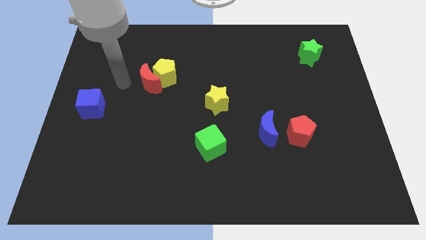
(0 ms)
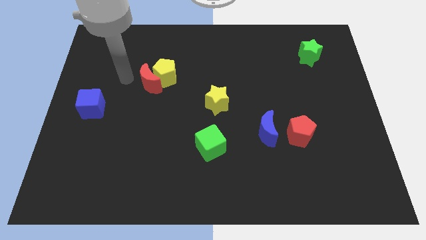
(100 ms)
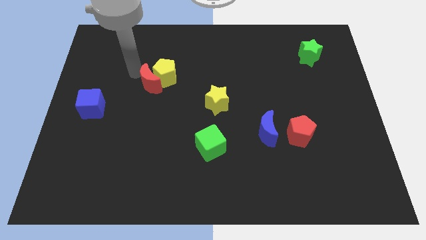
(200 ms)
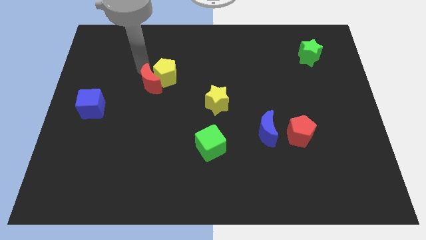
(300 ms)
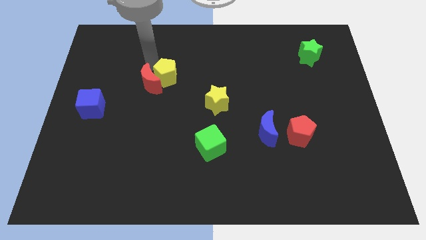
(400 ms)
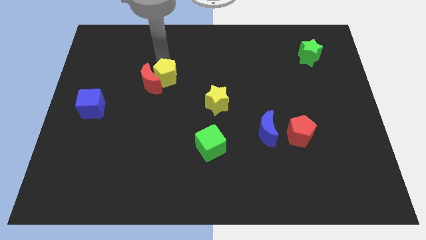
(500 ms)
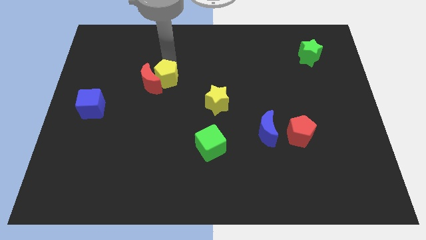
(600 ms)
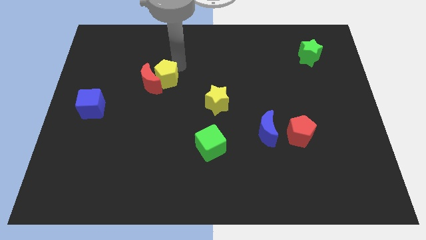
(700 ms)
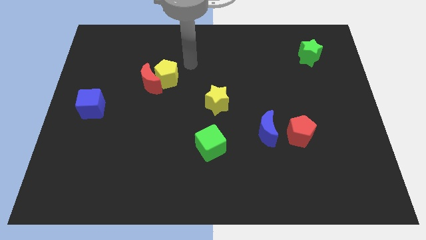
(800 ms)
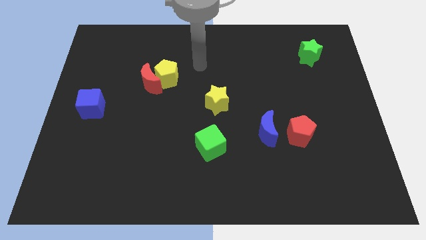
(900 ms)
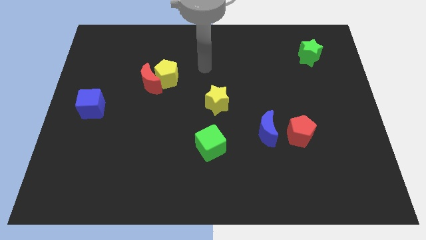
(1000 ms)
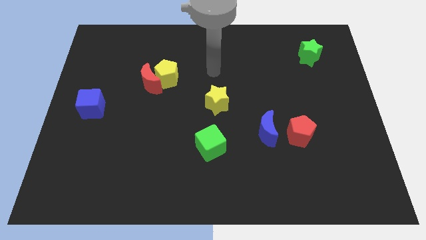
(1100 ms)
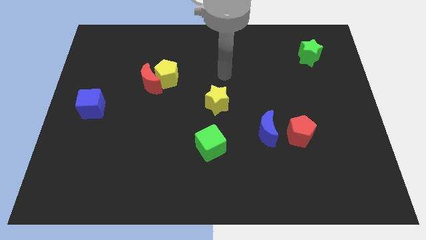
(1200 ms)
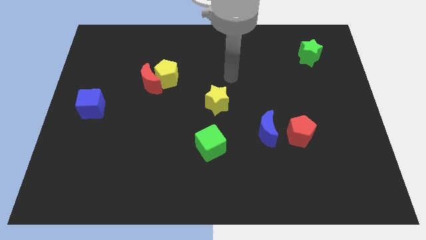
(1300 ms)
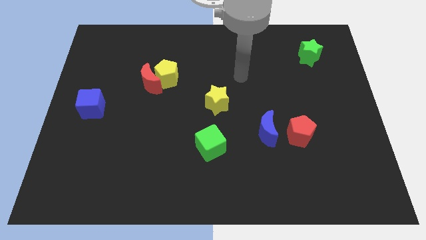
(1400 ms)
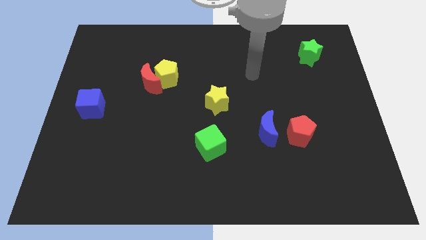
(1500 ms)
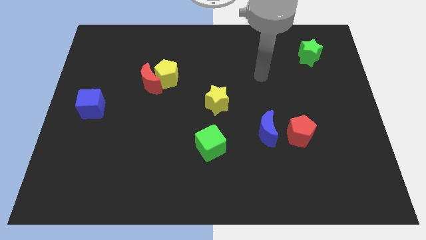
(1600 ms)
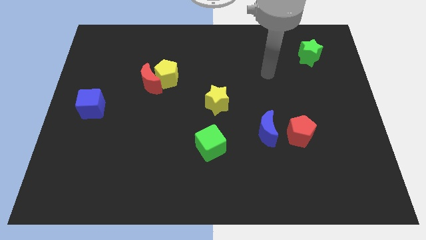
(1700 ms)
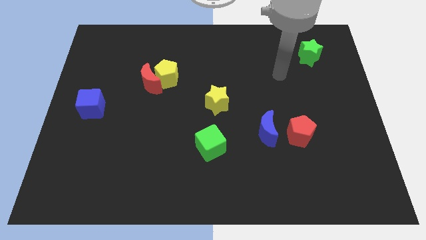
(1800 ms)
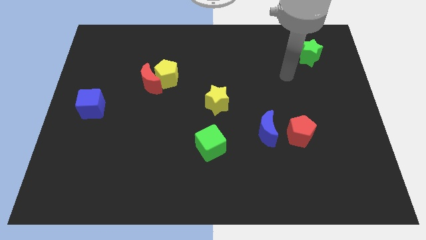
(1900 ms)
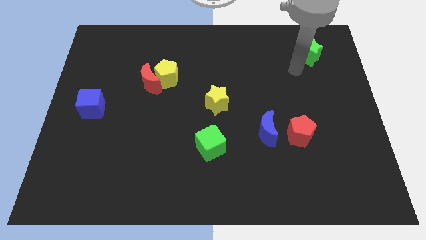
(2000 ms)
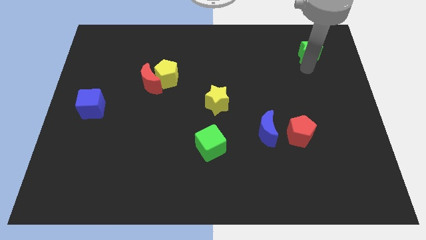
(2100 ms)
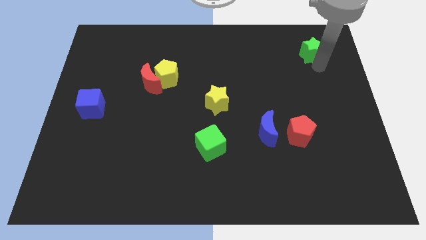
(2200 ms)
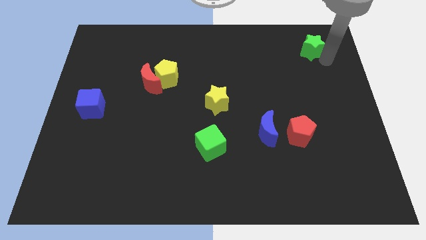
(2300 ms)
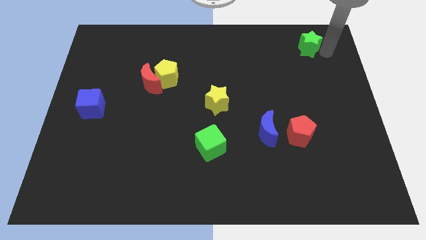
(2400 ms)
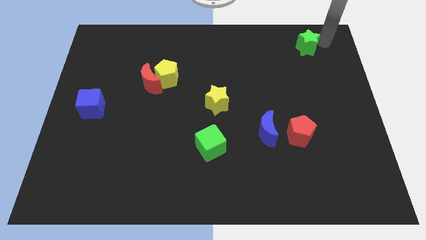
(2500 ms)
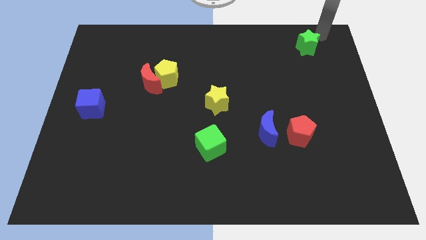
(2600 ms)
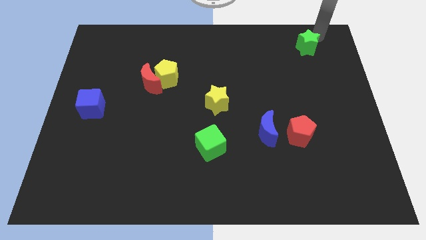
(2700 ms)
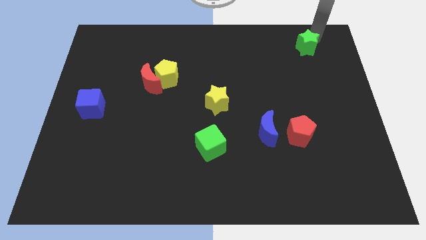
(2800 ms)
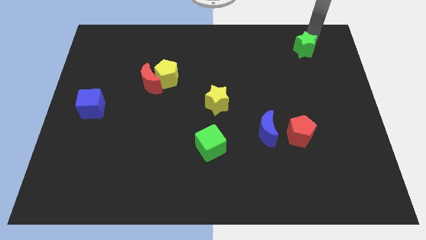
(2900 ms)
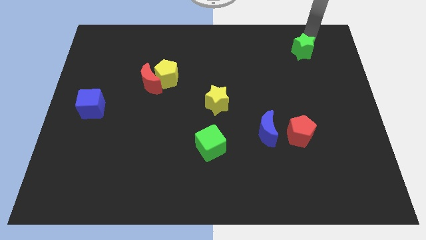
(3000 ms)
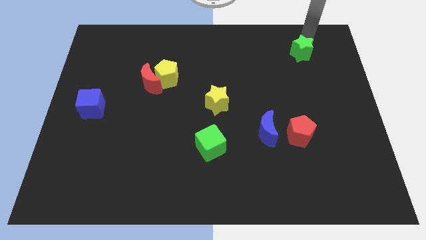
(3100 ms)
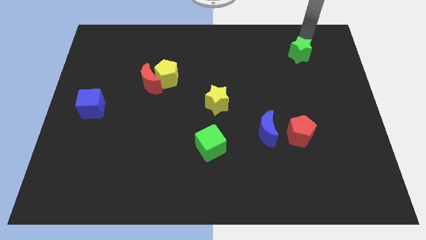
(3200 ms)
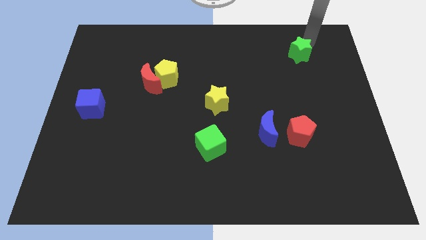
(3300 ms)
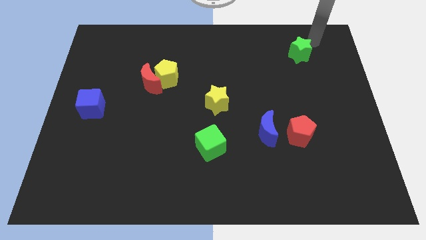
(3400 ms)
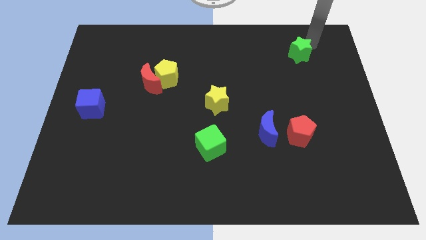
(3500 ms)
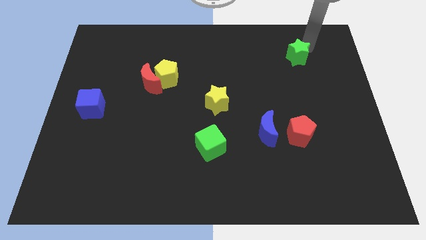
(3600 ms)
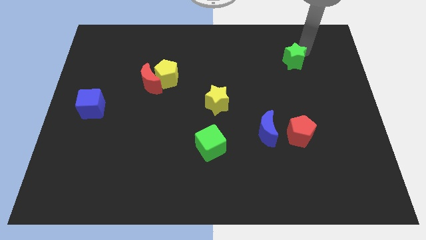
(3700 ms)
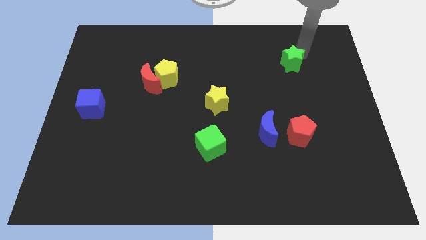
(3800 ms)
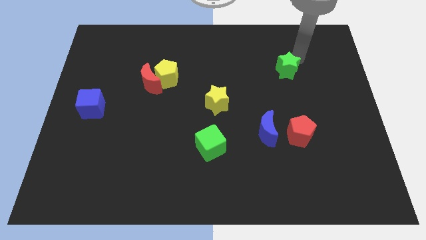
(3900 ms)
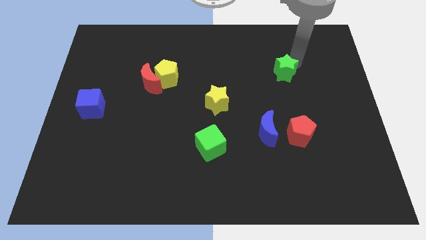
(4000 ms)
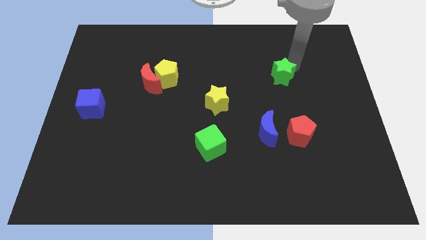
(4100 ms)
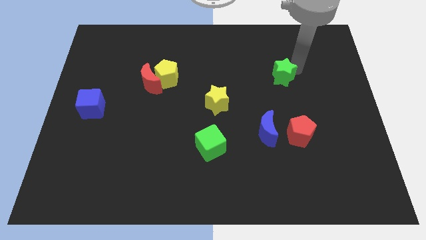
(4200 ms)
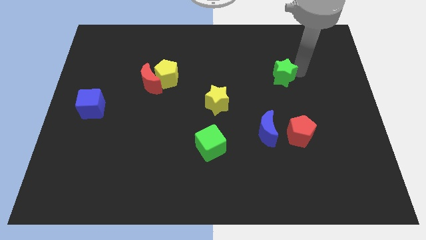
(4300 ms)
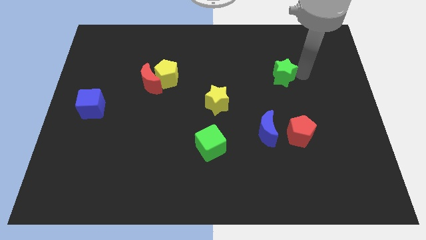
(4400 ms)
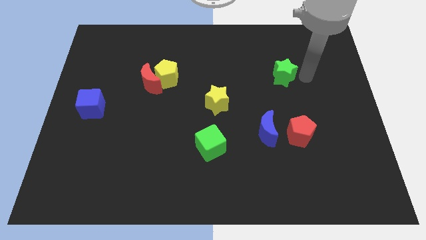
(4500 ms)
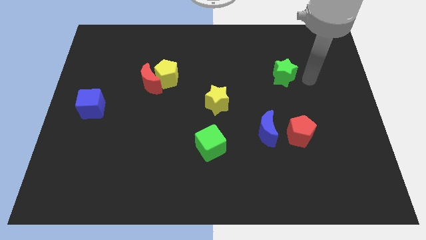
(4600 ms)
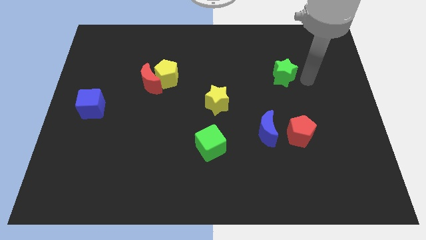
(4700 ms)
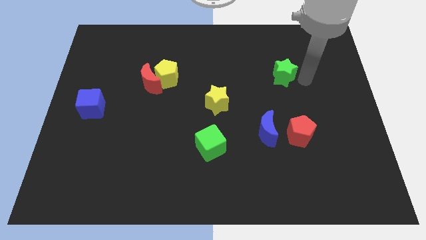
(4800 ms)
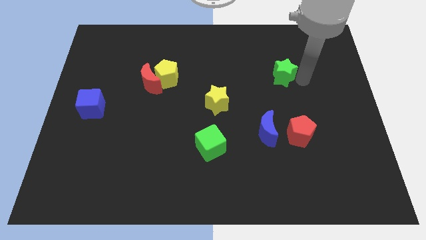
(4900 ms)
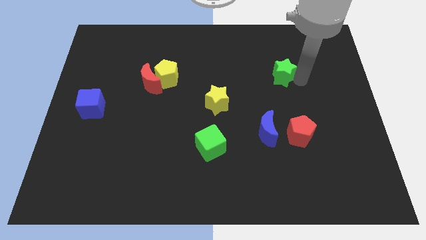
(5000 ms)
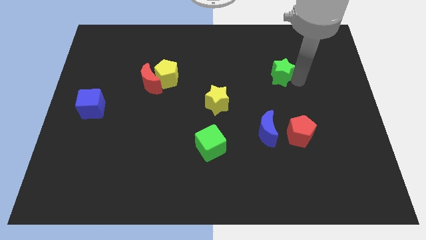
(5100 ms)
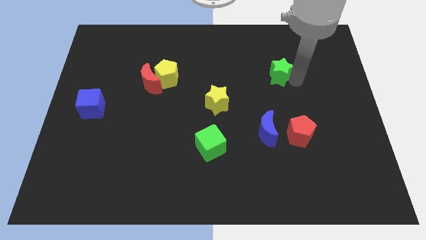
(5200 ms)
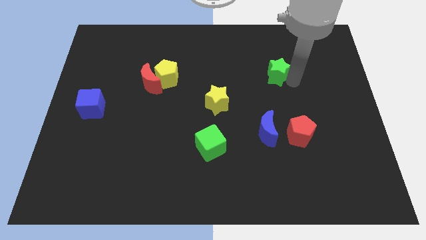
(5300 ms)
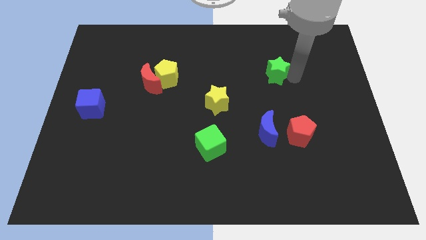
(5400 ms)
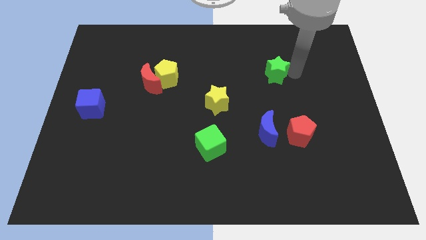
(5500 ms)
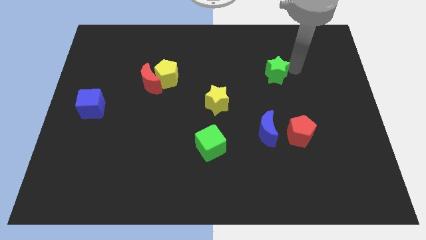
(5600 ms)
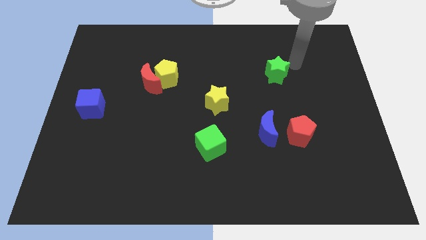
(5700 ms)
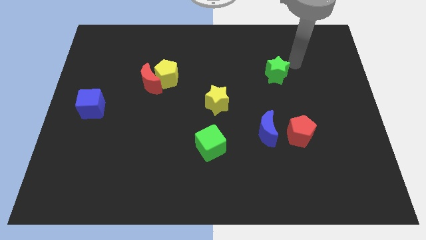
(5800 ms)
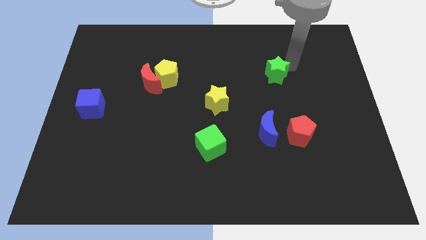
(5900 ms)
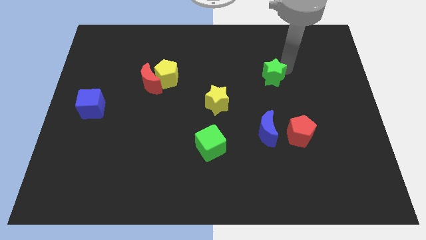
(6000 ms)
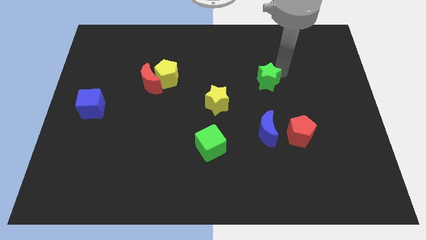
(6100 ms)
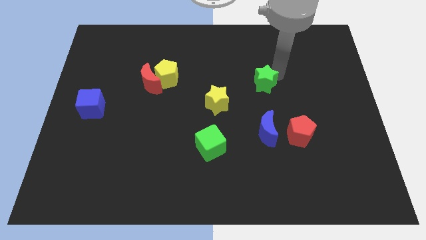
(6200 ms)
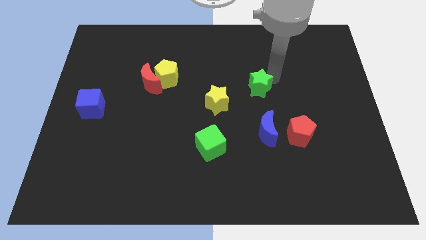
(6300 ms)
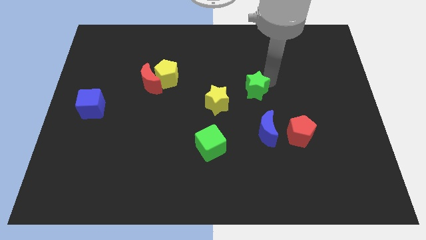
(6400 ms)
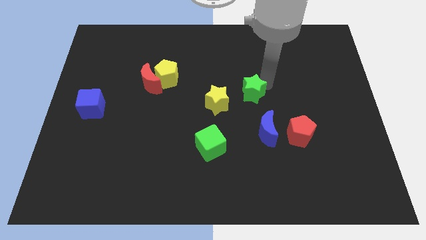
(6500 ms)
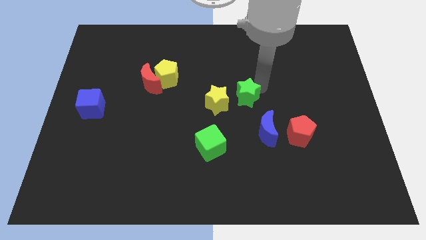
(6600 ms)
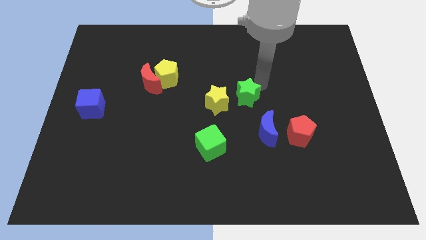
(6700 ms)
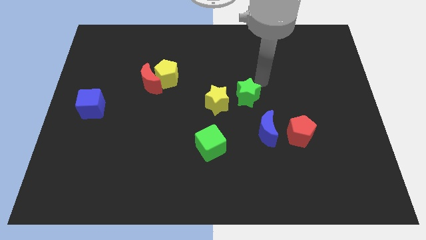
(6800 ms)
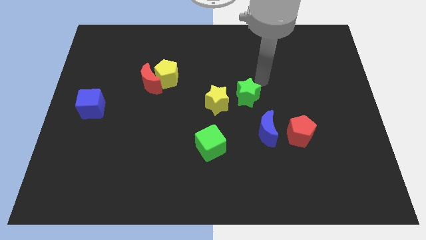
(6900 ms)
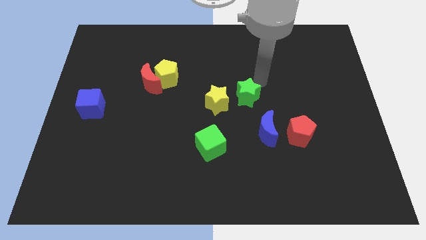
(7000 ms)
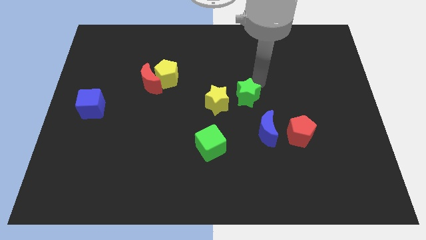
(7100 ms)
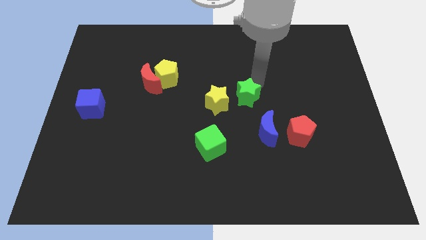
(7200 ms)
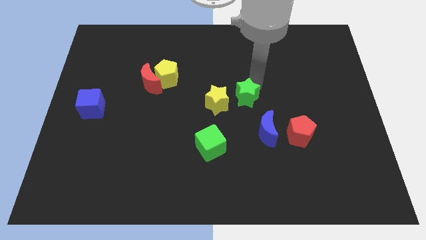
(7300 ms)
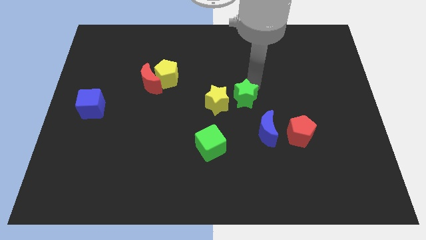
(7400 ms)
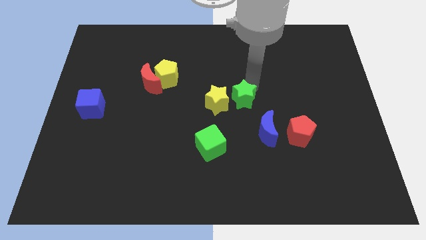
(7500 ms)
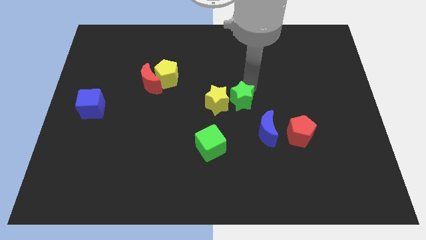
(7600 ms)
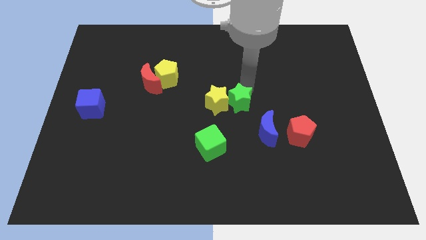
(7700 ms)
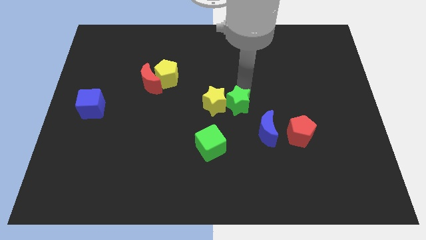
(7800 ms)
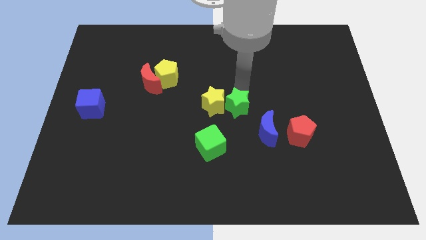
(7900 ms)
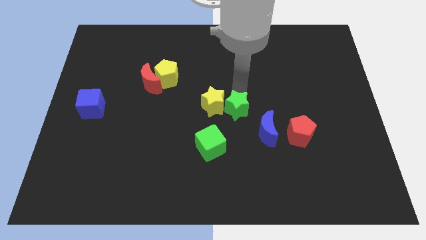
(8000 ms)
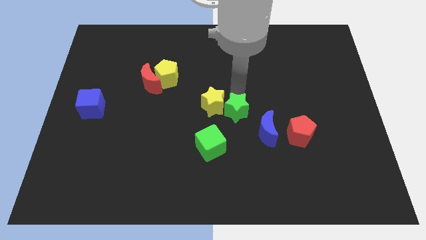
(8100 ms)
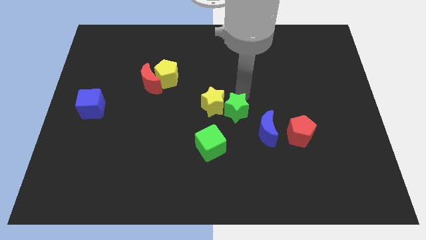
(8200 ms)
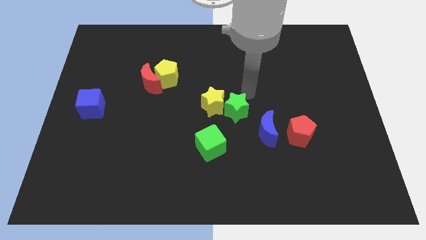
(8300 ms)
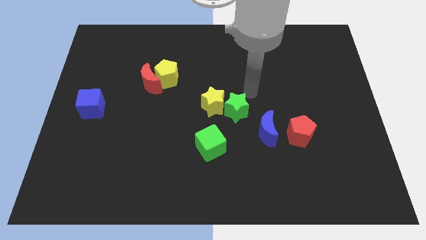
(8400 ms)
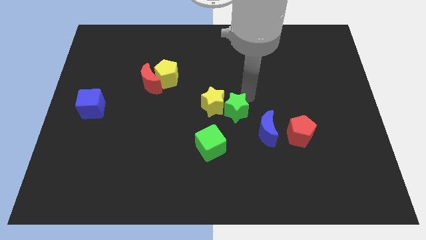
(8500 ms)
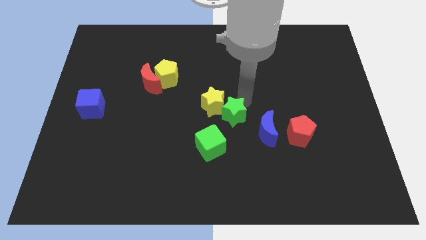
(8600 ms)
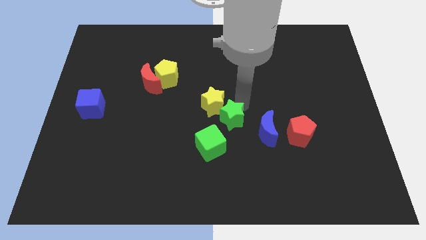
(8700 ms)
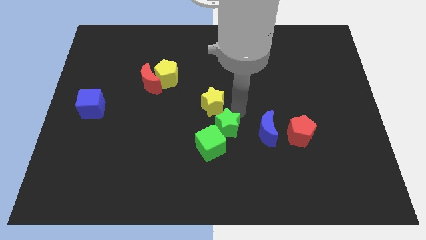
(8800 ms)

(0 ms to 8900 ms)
slide the green star next to the green cube
